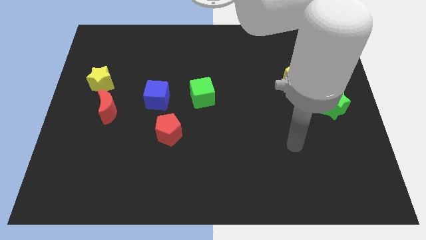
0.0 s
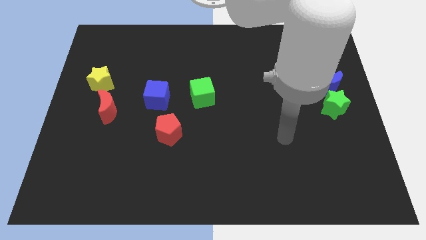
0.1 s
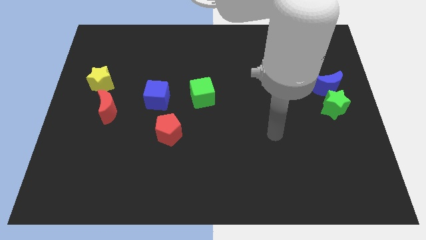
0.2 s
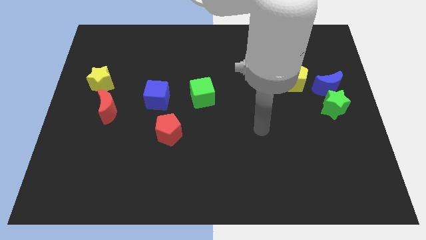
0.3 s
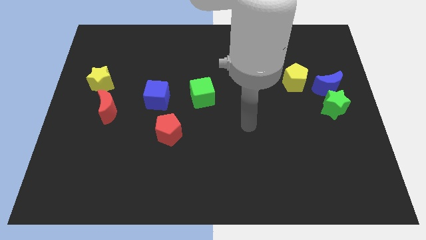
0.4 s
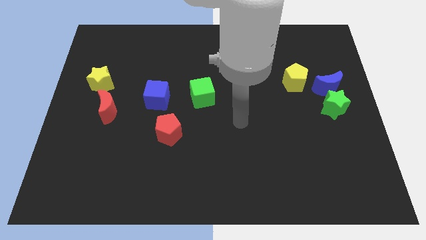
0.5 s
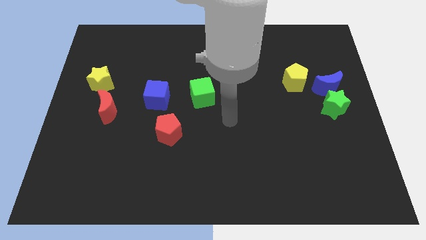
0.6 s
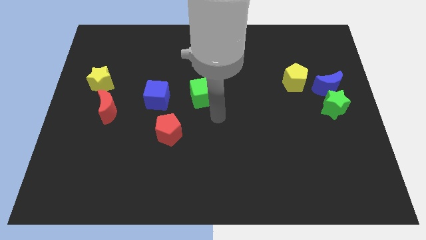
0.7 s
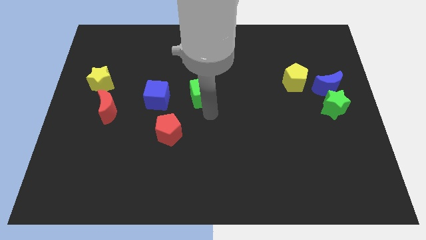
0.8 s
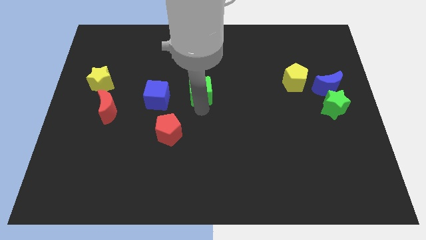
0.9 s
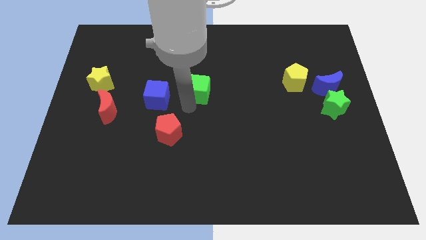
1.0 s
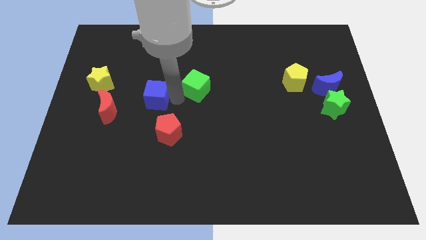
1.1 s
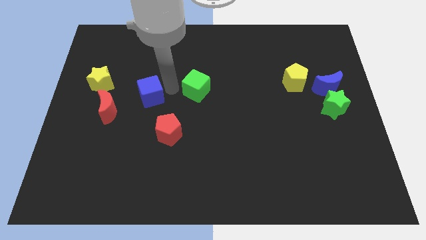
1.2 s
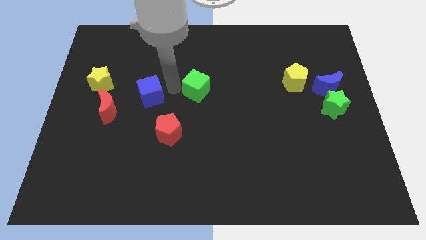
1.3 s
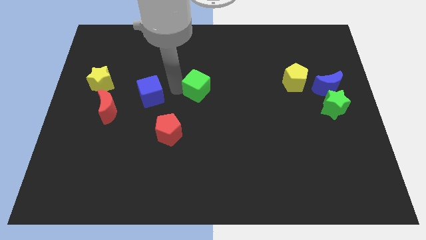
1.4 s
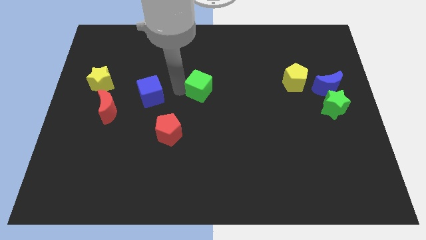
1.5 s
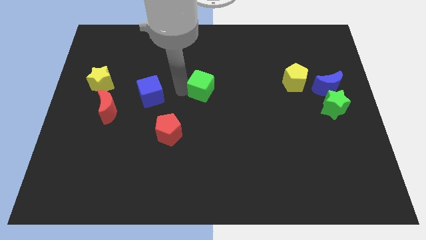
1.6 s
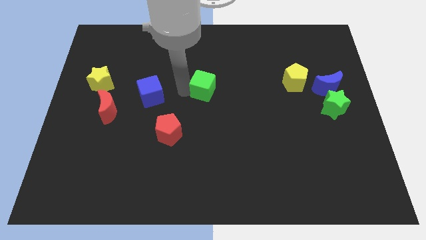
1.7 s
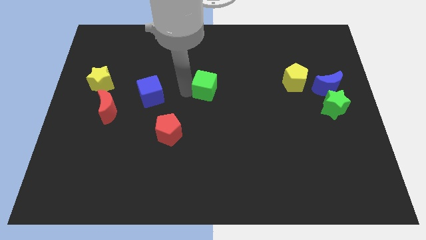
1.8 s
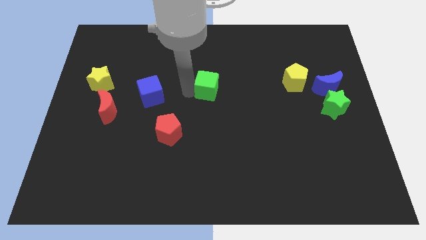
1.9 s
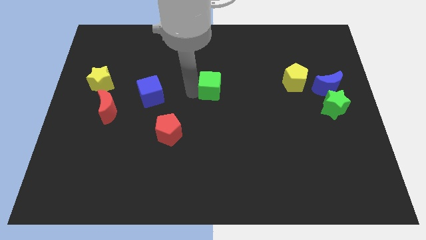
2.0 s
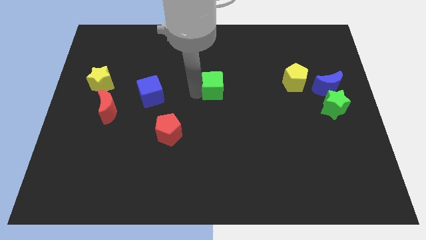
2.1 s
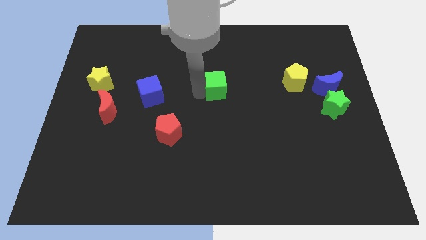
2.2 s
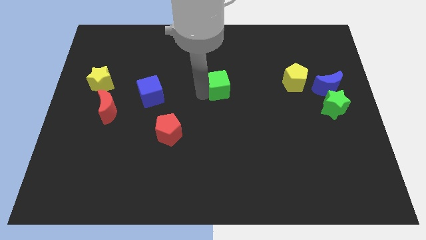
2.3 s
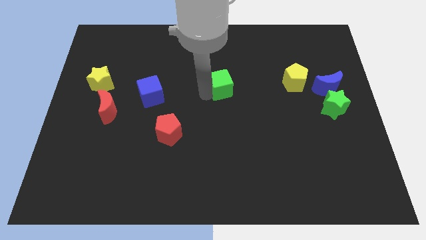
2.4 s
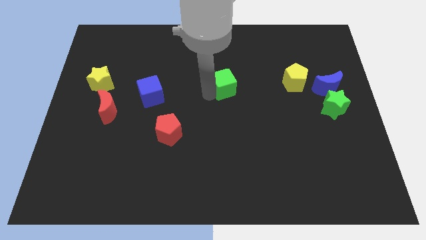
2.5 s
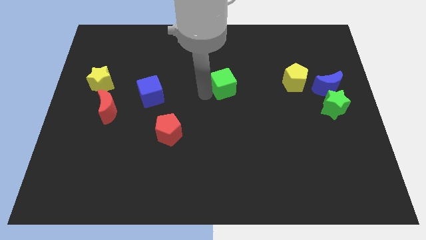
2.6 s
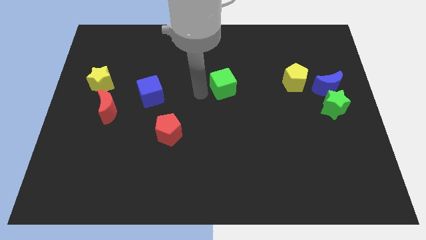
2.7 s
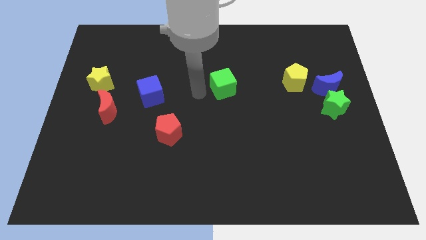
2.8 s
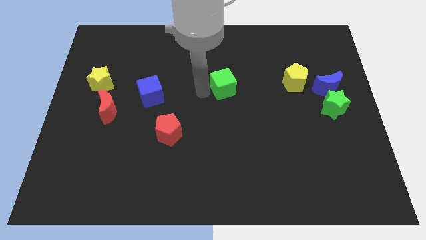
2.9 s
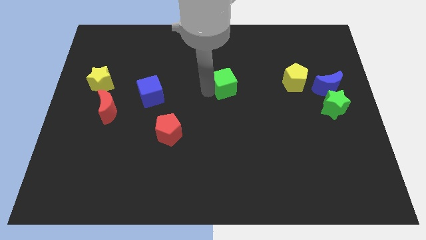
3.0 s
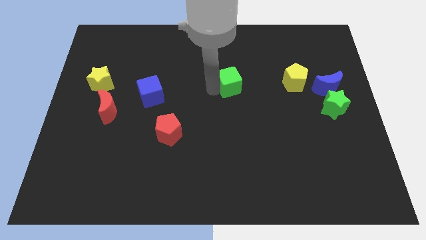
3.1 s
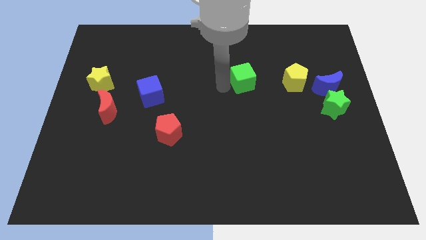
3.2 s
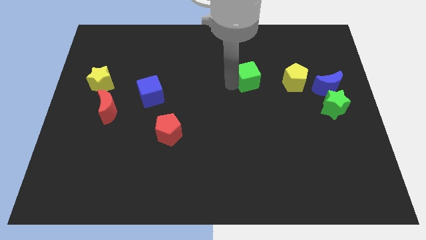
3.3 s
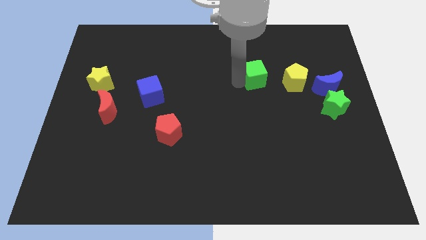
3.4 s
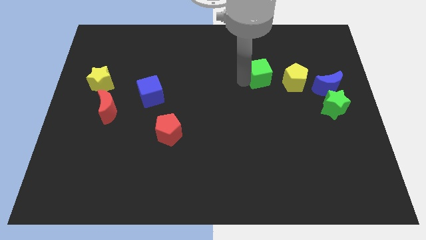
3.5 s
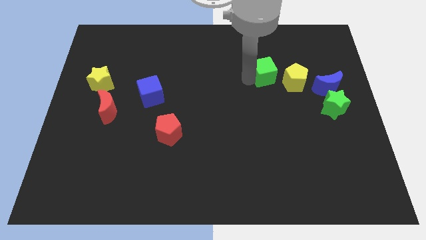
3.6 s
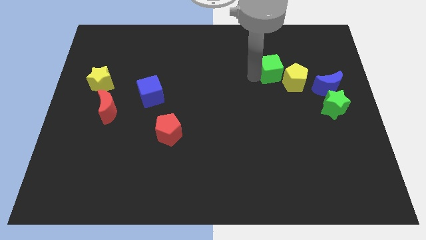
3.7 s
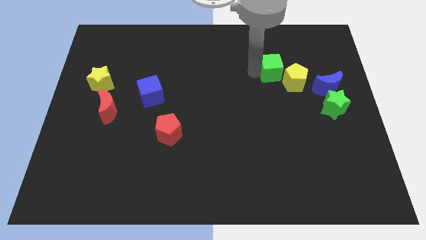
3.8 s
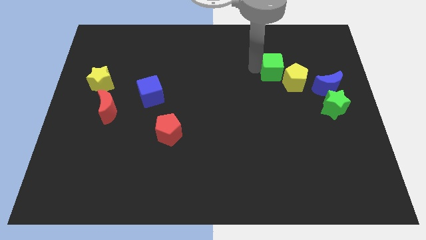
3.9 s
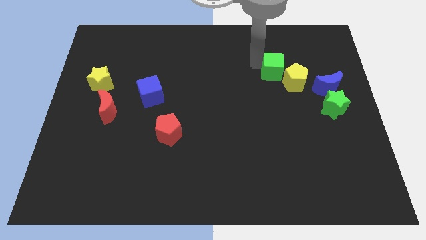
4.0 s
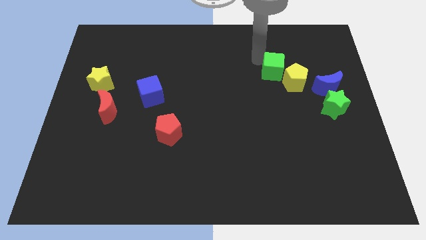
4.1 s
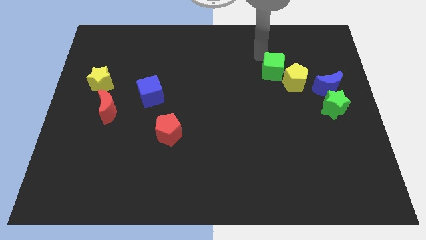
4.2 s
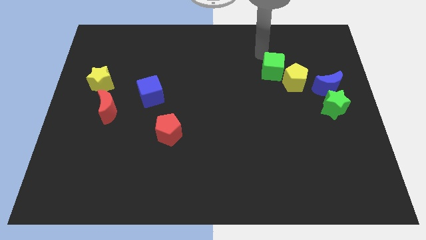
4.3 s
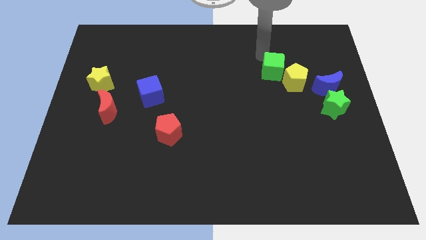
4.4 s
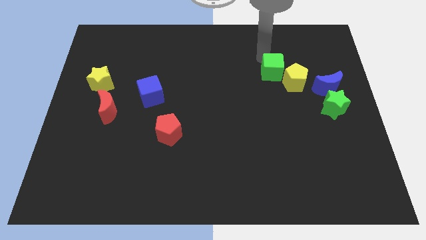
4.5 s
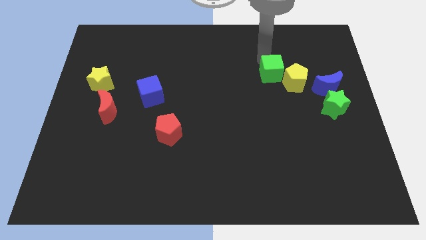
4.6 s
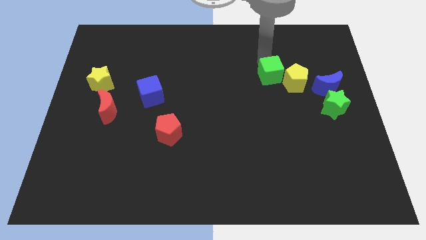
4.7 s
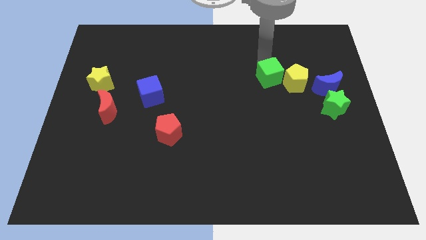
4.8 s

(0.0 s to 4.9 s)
slide the green cube to the left side of the blue moon

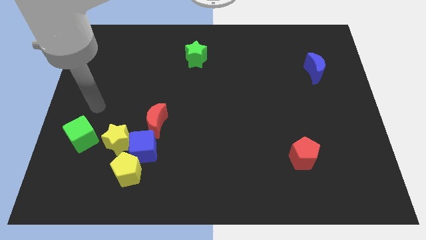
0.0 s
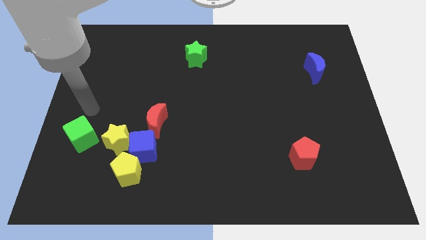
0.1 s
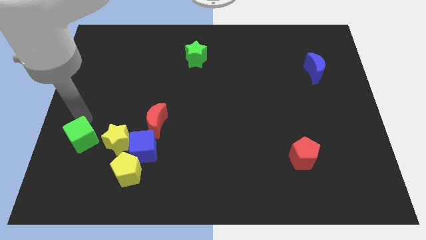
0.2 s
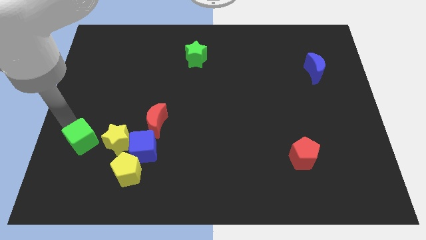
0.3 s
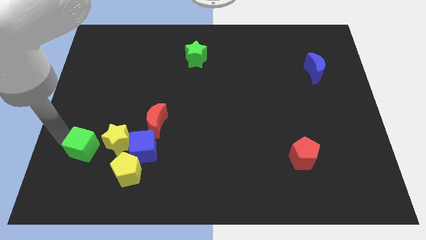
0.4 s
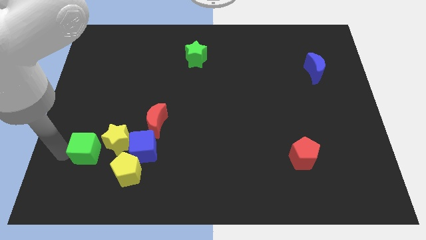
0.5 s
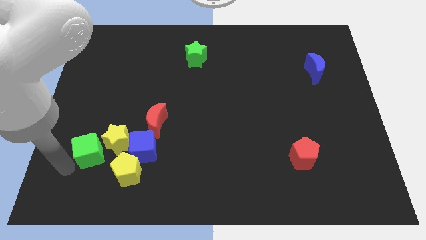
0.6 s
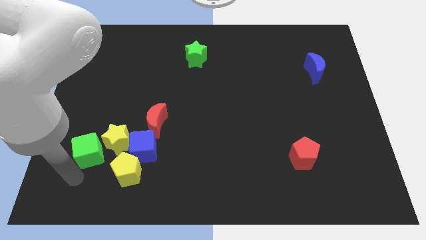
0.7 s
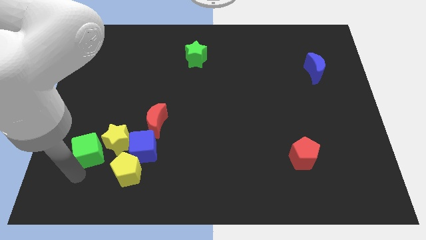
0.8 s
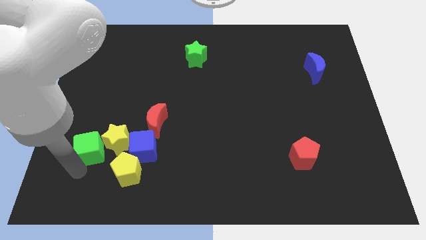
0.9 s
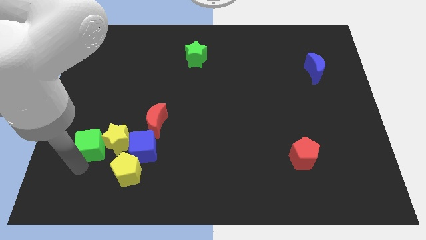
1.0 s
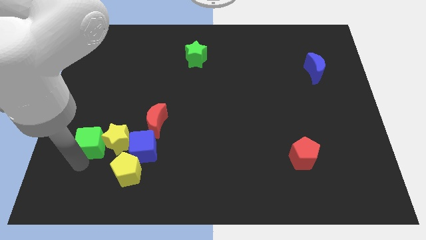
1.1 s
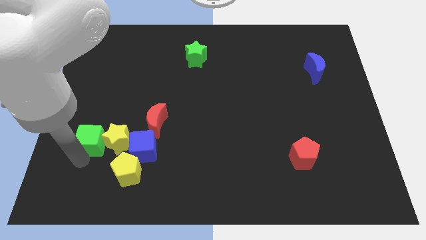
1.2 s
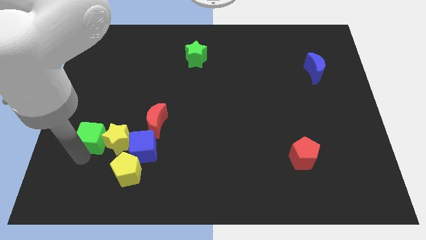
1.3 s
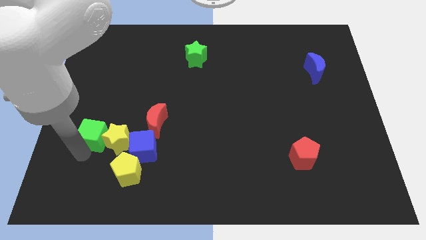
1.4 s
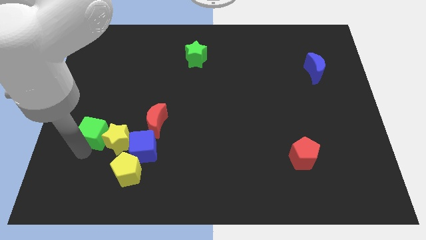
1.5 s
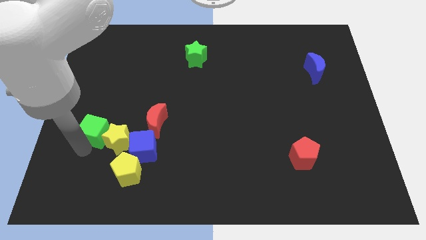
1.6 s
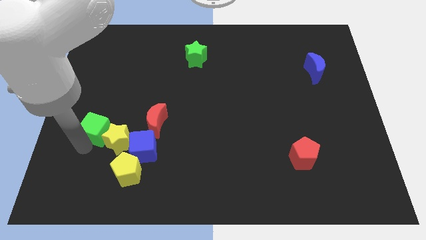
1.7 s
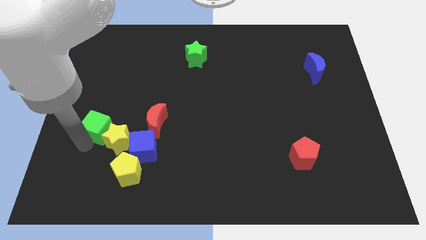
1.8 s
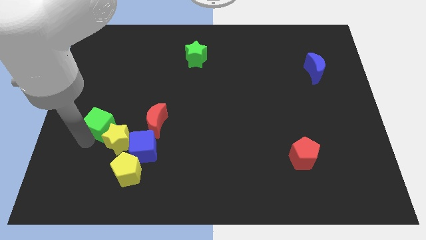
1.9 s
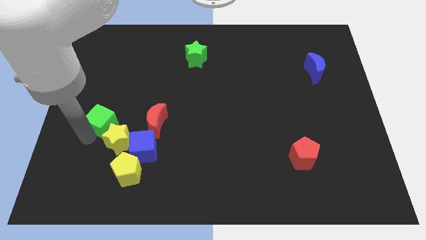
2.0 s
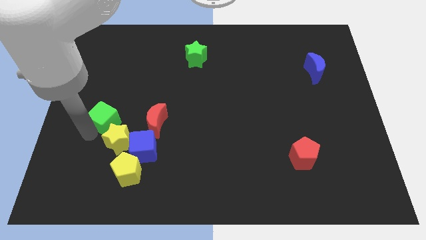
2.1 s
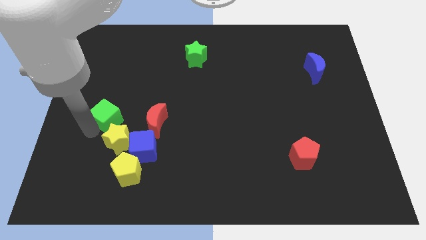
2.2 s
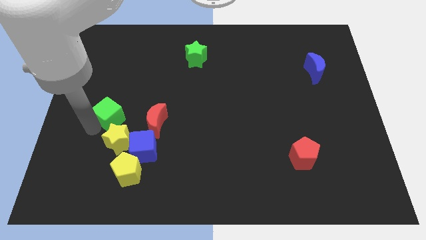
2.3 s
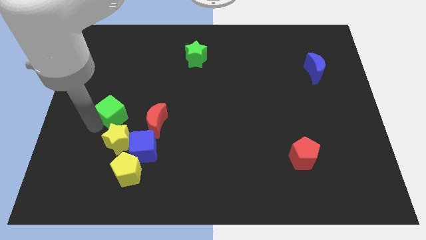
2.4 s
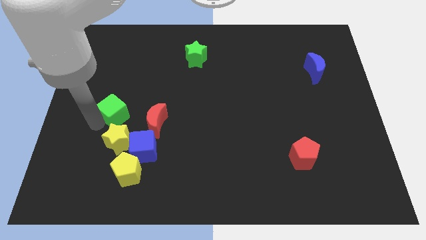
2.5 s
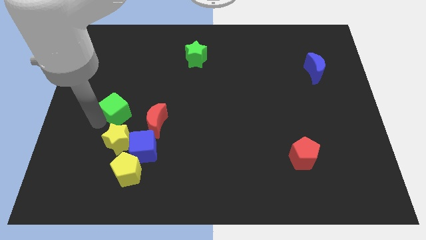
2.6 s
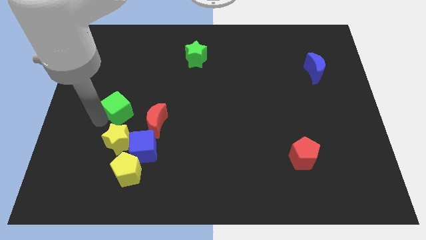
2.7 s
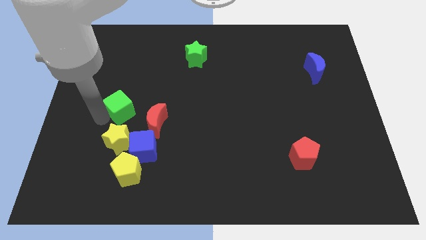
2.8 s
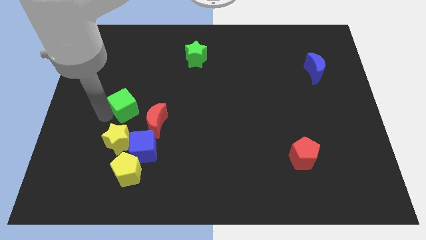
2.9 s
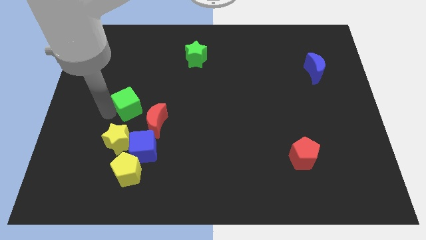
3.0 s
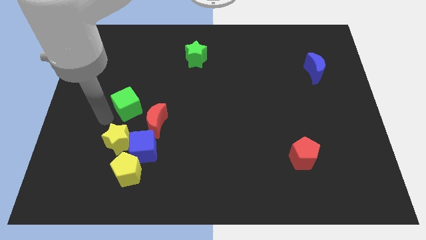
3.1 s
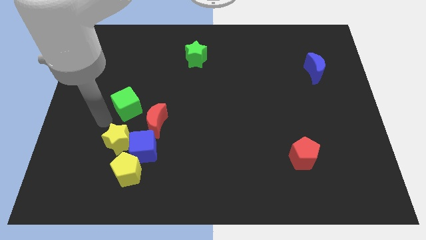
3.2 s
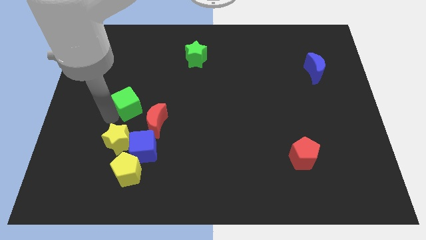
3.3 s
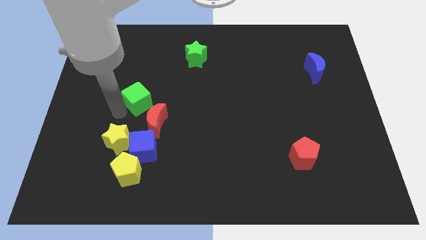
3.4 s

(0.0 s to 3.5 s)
move the green cube to the top side of the red moon

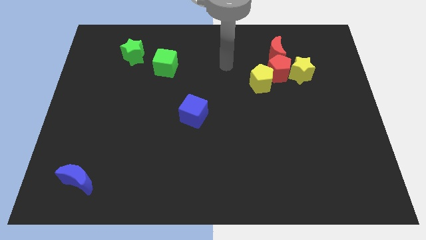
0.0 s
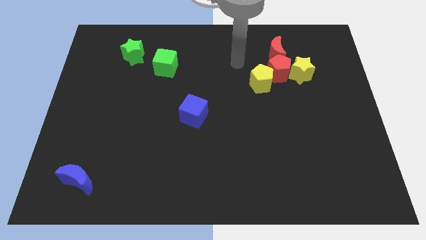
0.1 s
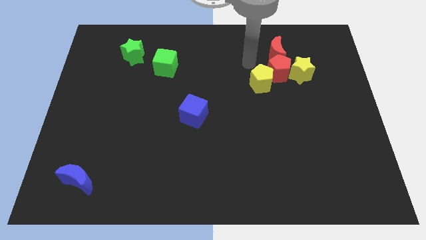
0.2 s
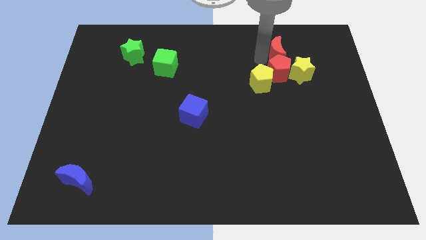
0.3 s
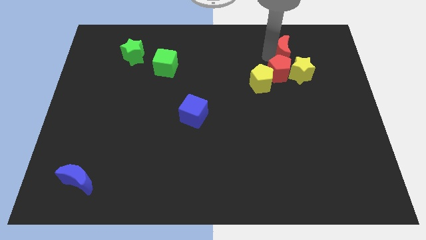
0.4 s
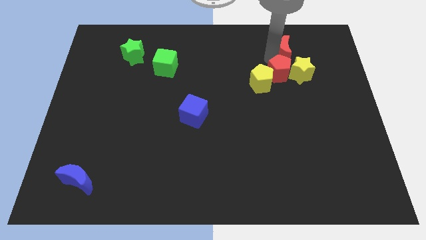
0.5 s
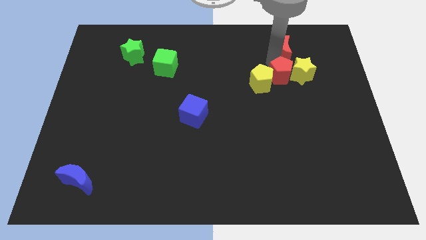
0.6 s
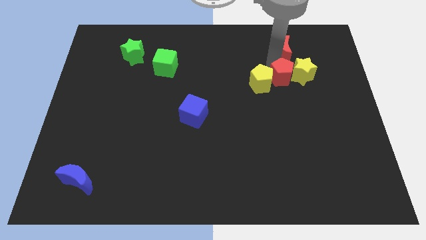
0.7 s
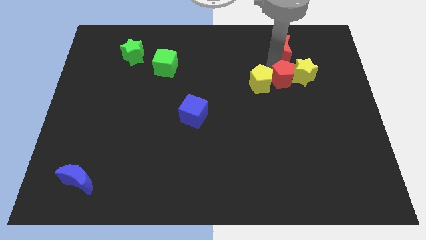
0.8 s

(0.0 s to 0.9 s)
push the red pentagon to the bottom right side of the yellow pentagon
